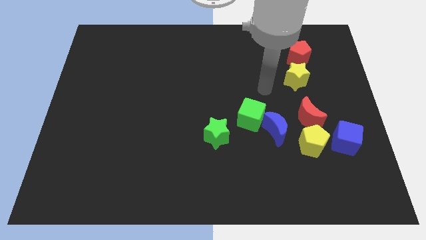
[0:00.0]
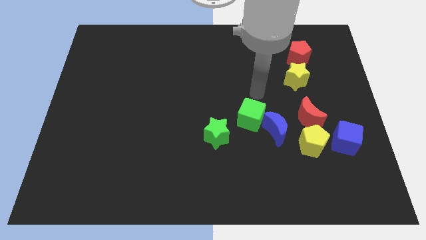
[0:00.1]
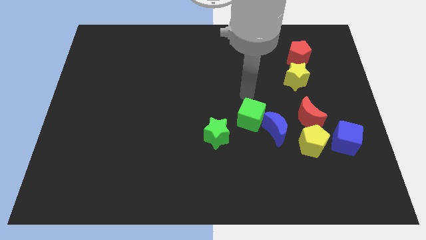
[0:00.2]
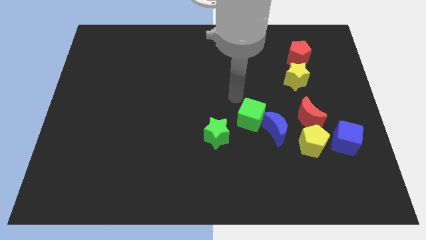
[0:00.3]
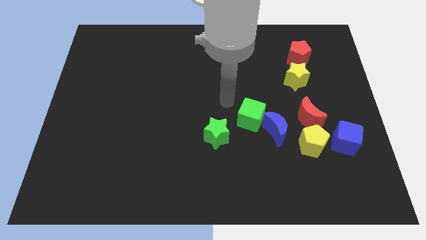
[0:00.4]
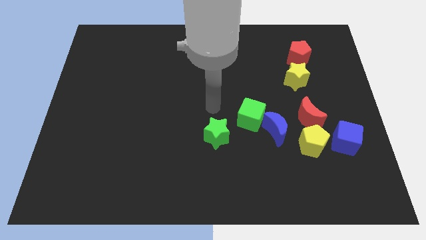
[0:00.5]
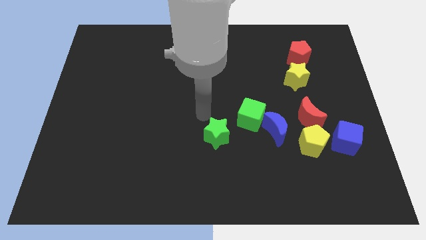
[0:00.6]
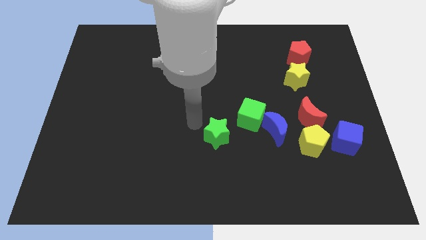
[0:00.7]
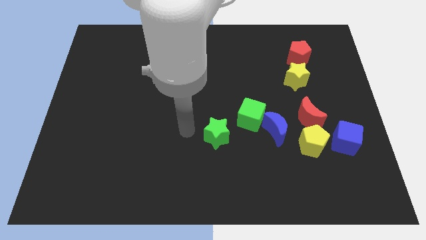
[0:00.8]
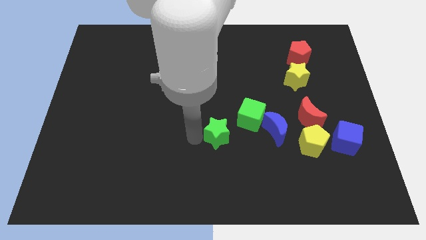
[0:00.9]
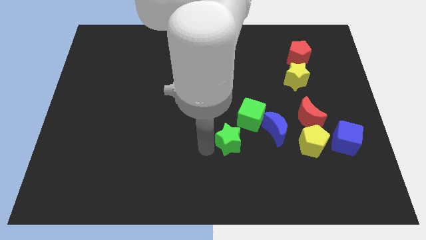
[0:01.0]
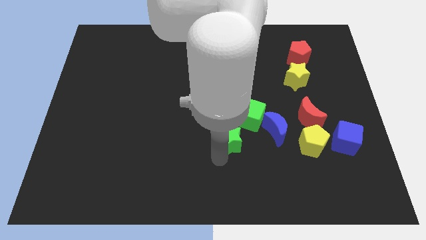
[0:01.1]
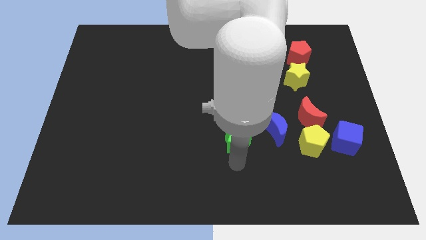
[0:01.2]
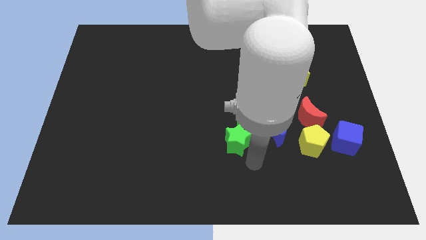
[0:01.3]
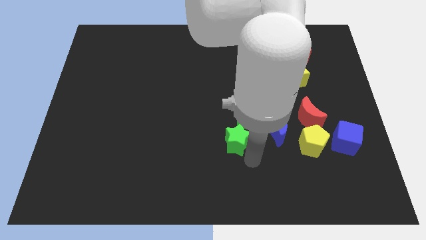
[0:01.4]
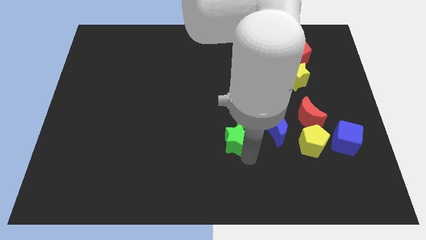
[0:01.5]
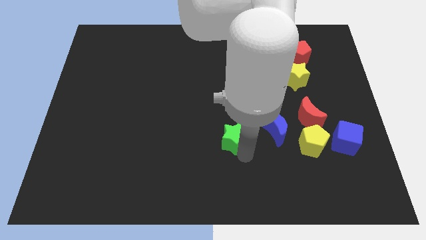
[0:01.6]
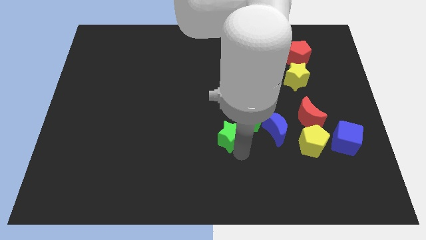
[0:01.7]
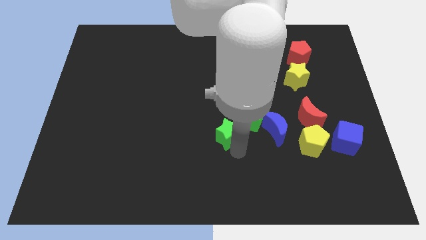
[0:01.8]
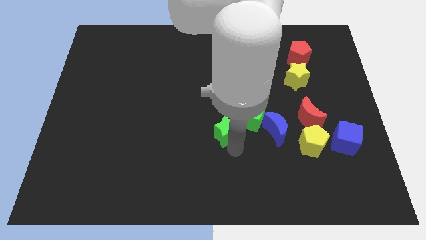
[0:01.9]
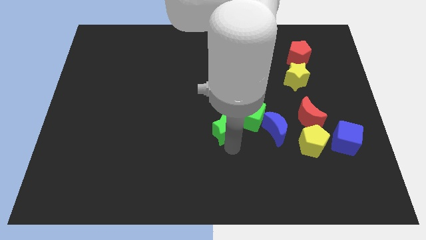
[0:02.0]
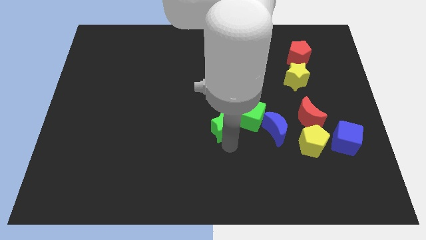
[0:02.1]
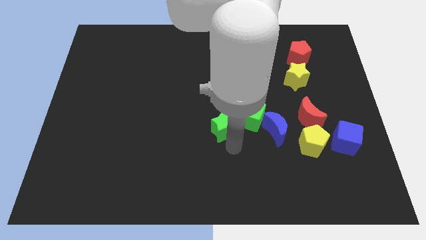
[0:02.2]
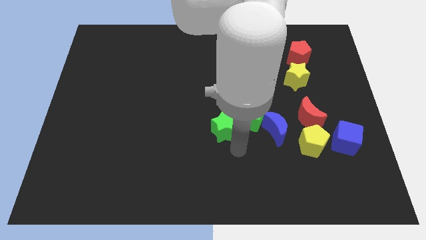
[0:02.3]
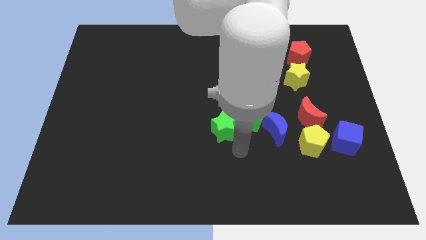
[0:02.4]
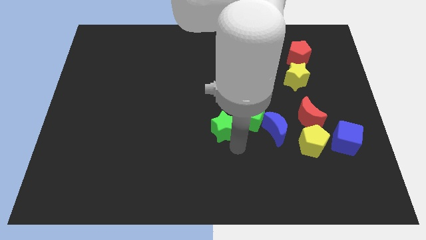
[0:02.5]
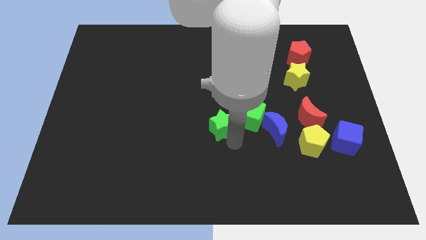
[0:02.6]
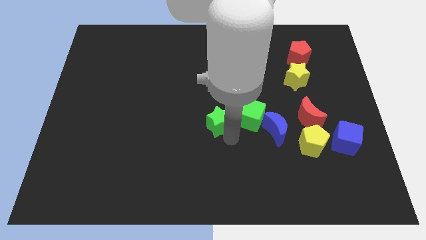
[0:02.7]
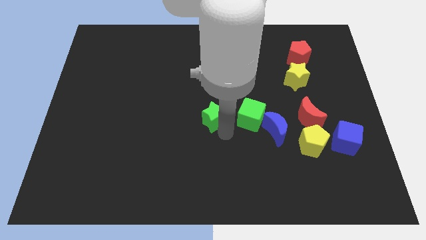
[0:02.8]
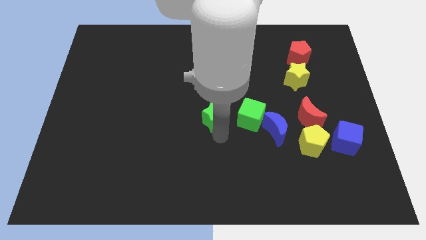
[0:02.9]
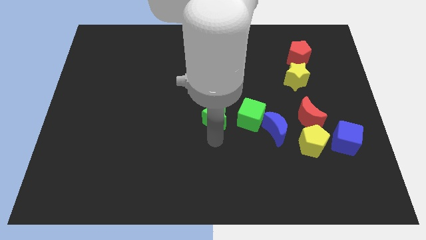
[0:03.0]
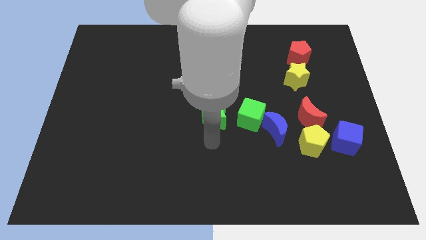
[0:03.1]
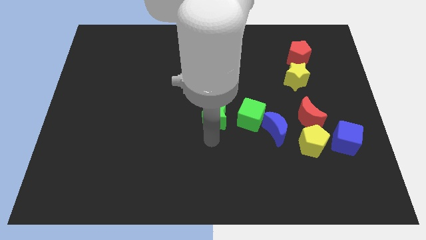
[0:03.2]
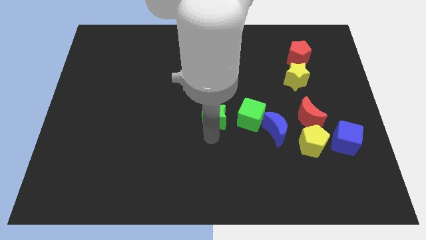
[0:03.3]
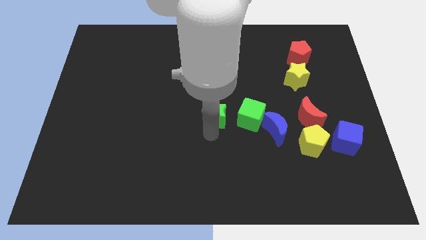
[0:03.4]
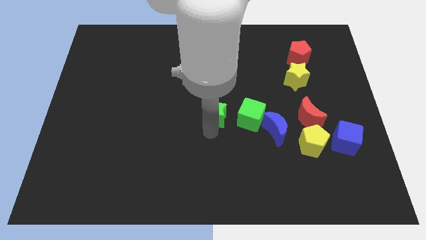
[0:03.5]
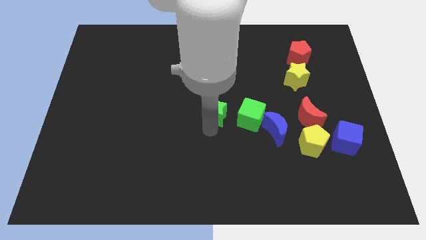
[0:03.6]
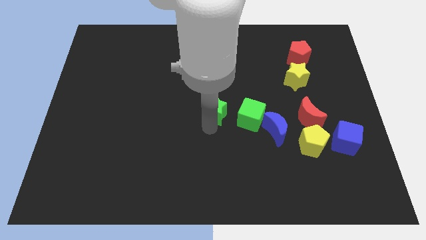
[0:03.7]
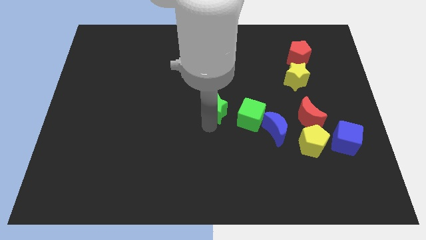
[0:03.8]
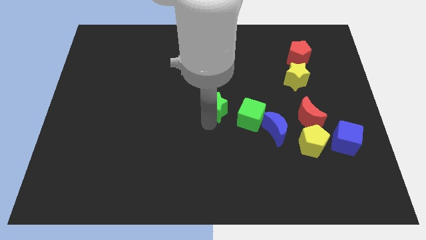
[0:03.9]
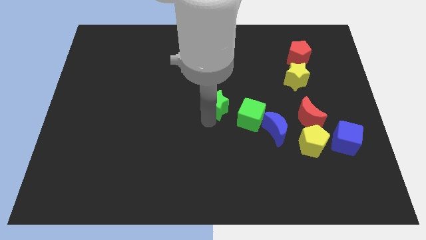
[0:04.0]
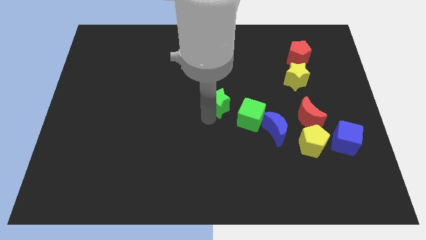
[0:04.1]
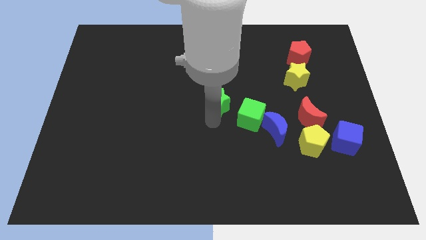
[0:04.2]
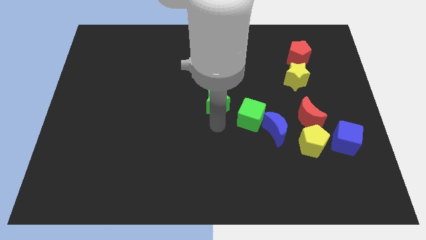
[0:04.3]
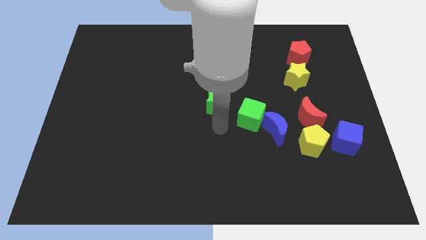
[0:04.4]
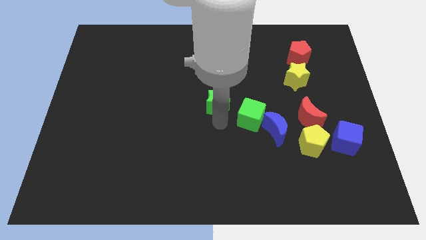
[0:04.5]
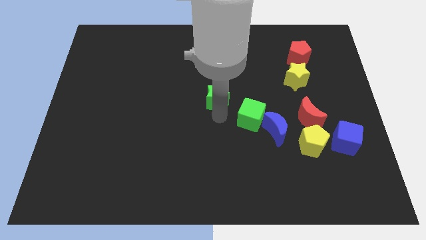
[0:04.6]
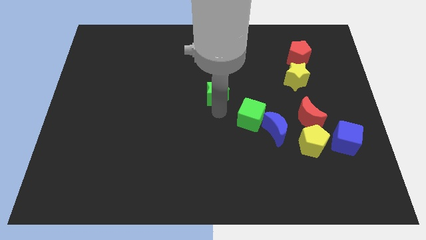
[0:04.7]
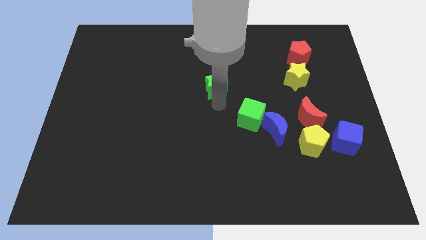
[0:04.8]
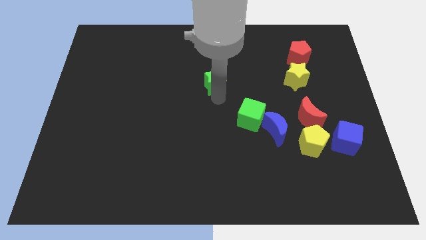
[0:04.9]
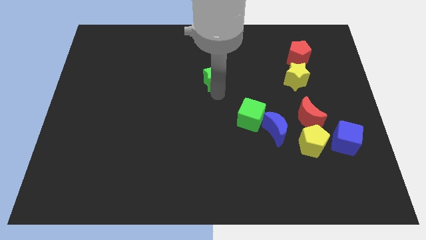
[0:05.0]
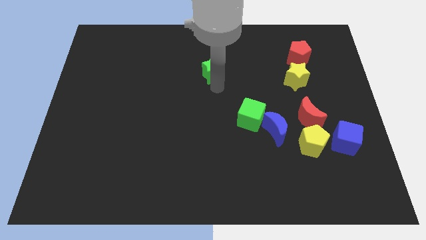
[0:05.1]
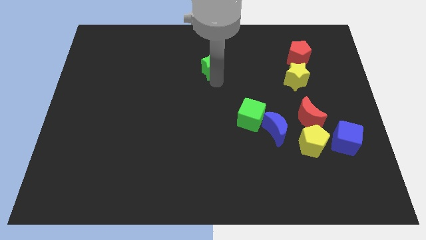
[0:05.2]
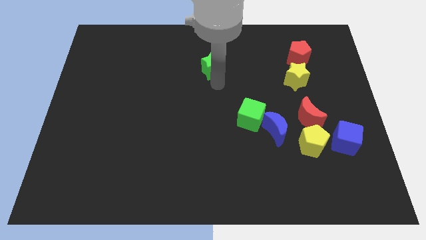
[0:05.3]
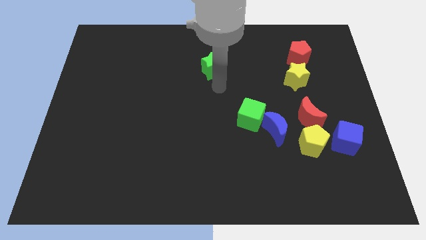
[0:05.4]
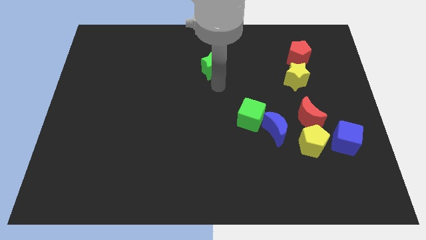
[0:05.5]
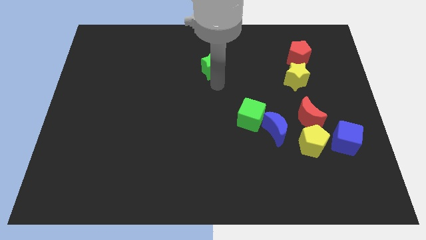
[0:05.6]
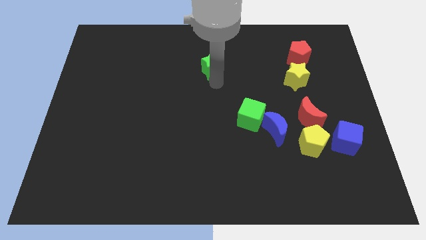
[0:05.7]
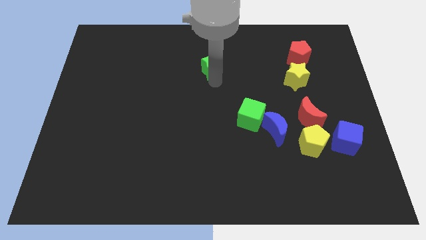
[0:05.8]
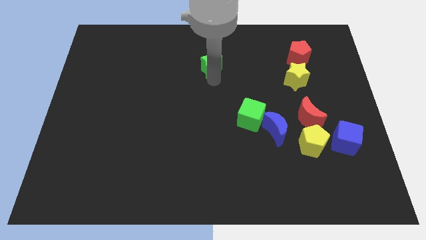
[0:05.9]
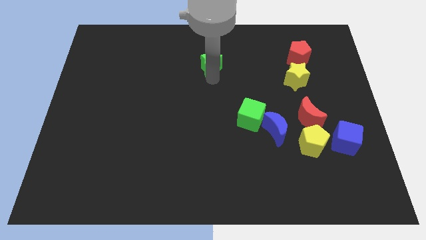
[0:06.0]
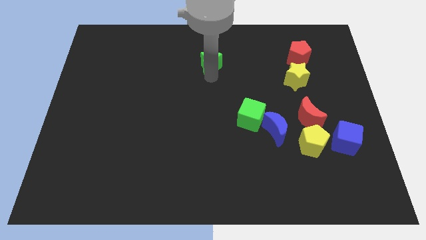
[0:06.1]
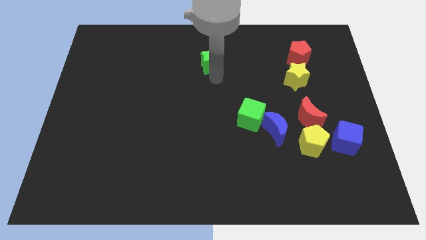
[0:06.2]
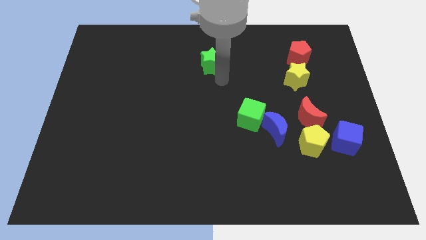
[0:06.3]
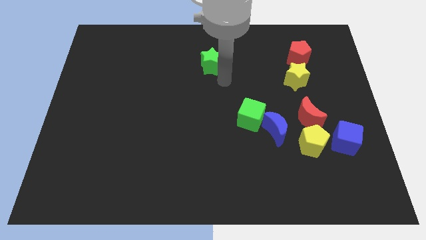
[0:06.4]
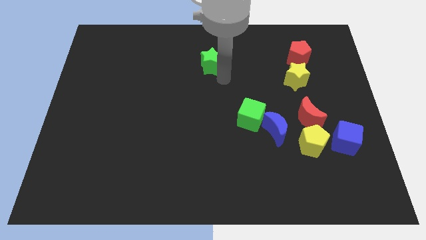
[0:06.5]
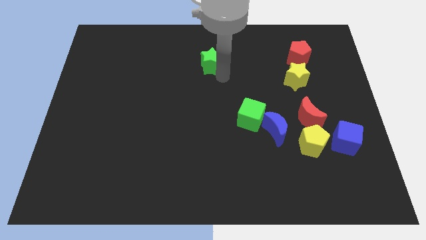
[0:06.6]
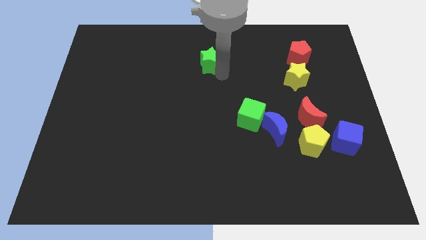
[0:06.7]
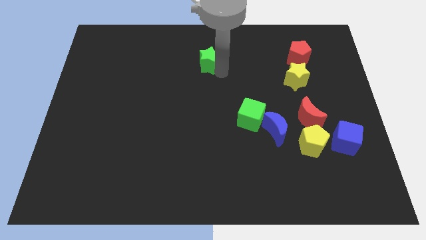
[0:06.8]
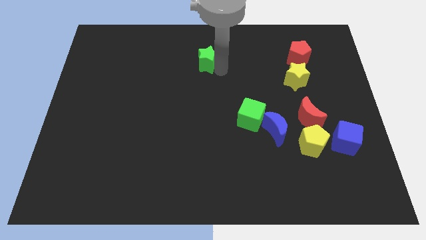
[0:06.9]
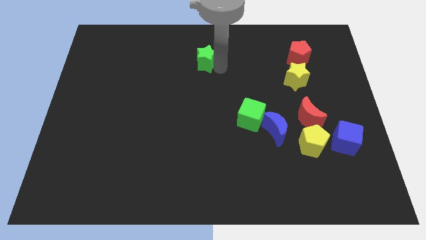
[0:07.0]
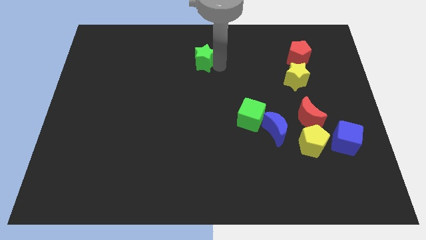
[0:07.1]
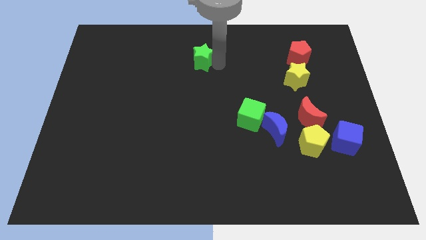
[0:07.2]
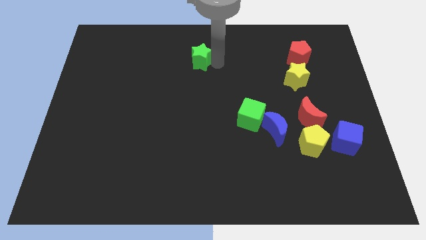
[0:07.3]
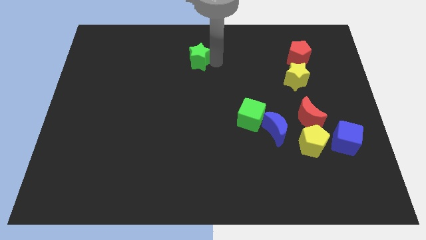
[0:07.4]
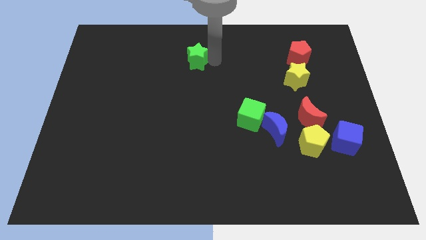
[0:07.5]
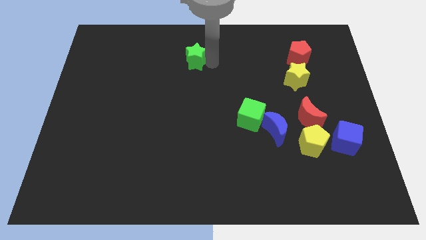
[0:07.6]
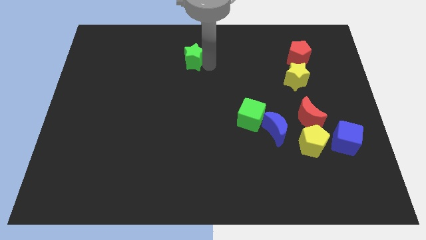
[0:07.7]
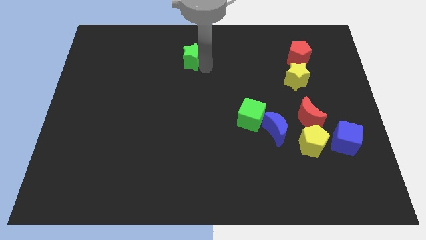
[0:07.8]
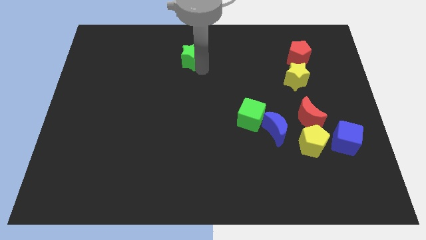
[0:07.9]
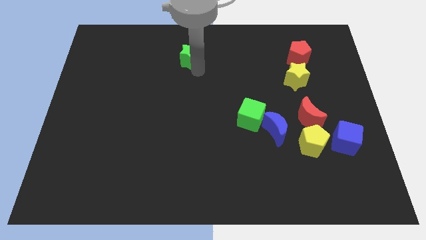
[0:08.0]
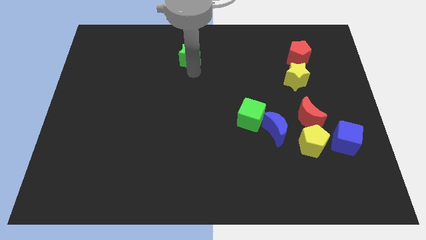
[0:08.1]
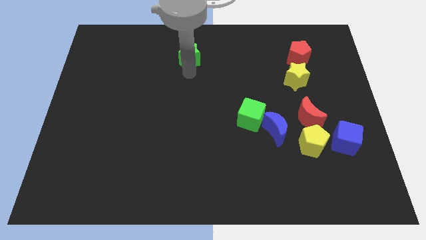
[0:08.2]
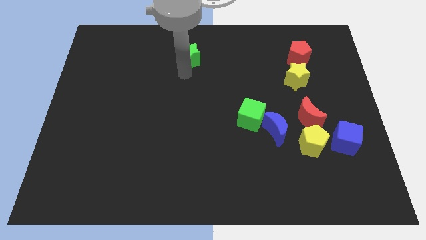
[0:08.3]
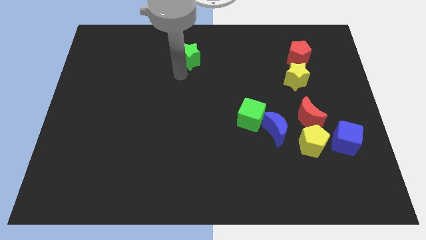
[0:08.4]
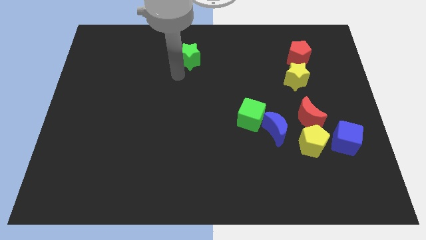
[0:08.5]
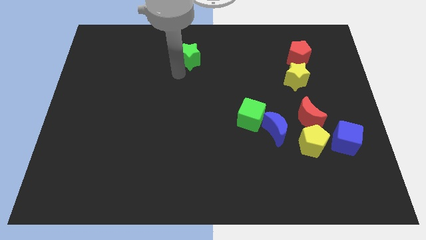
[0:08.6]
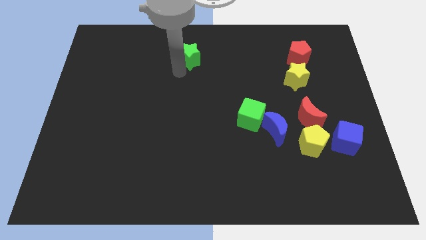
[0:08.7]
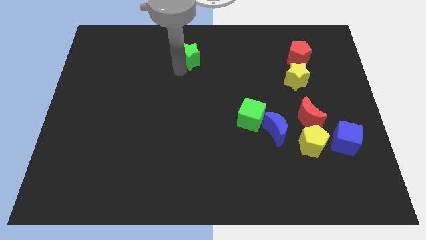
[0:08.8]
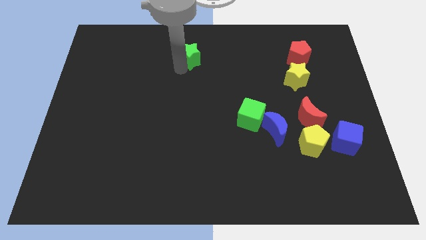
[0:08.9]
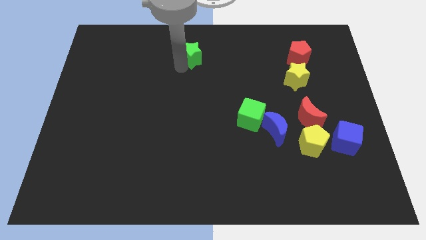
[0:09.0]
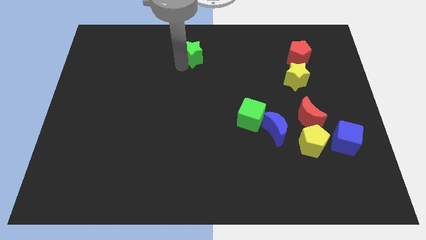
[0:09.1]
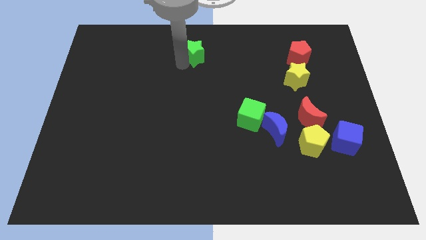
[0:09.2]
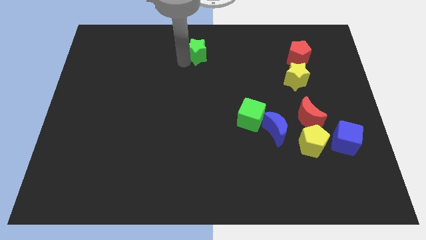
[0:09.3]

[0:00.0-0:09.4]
move the green star to the top
